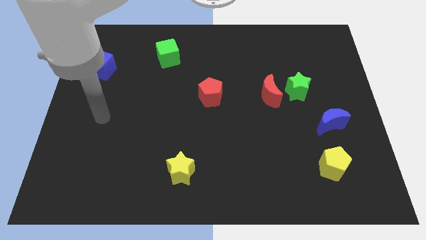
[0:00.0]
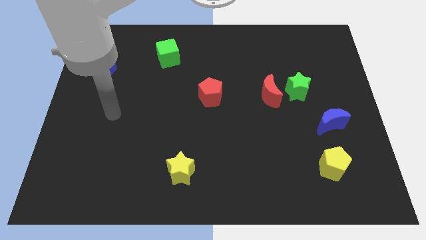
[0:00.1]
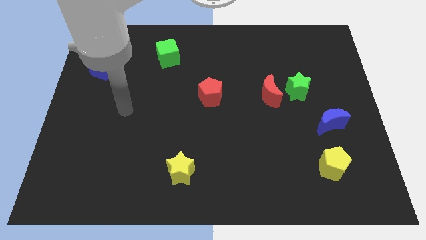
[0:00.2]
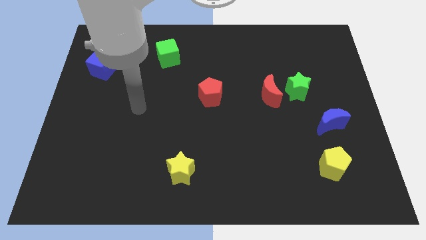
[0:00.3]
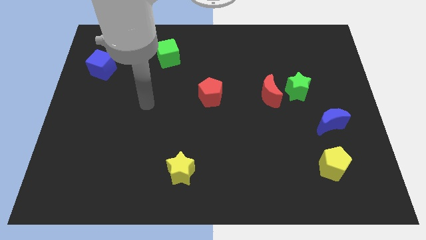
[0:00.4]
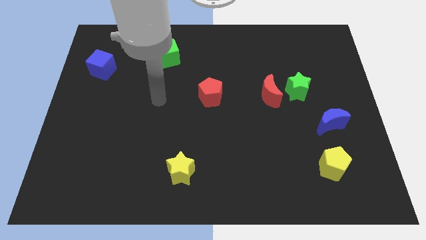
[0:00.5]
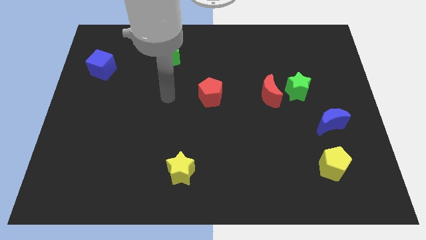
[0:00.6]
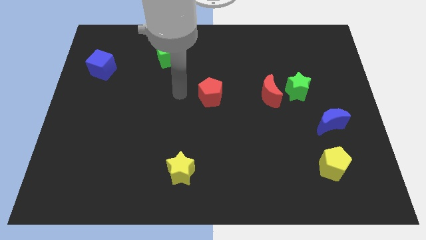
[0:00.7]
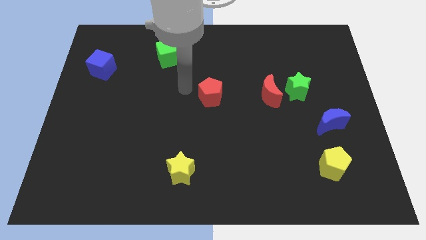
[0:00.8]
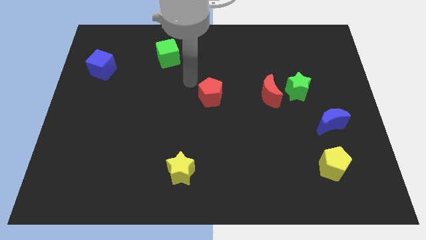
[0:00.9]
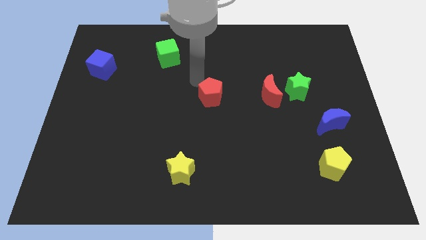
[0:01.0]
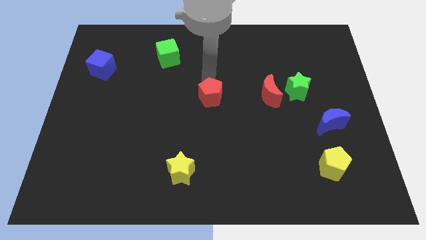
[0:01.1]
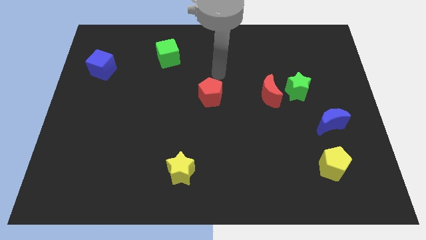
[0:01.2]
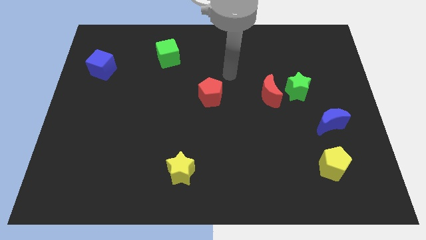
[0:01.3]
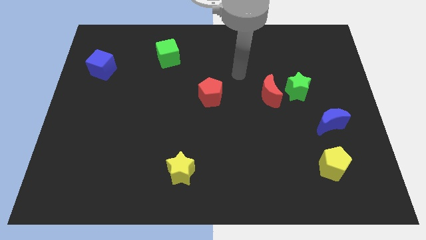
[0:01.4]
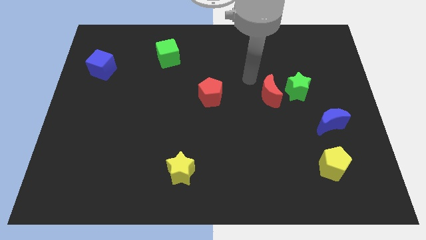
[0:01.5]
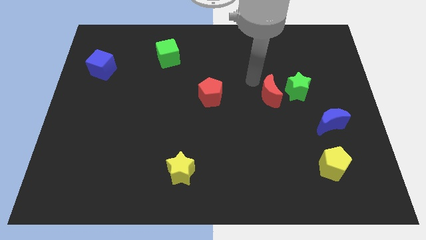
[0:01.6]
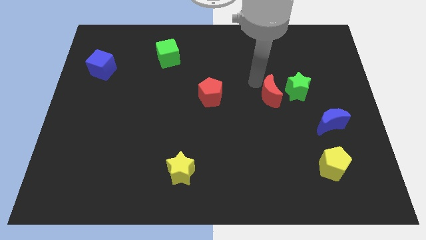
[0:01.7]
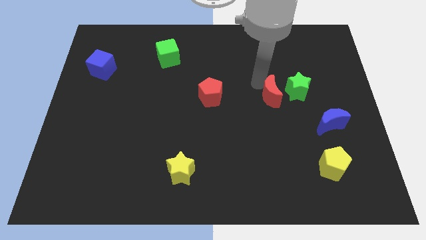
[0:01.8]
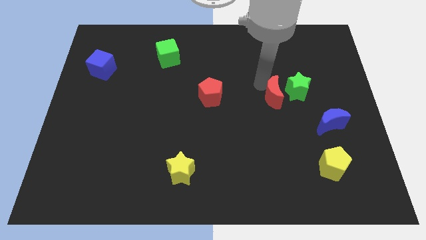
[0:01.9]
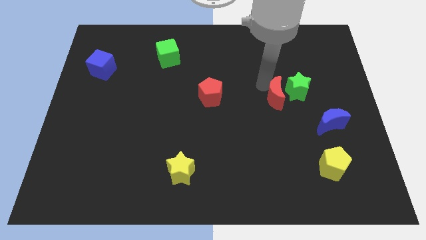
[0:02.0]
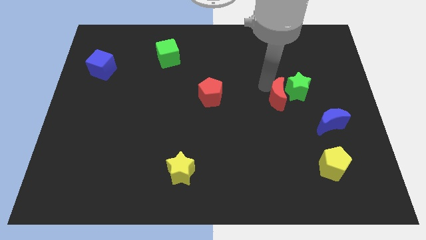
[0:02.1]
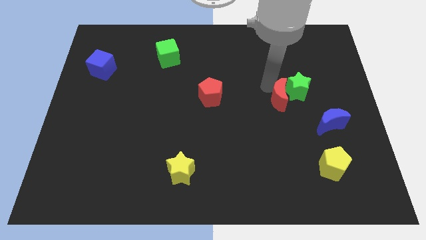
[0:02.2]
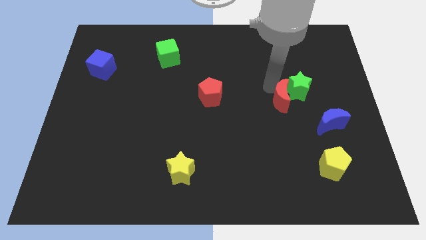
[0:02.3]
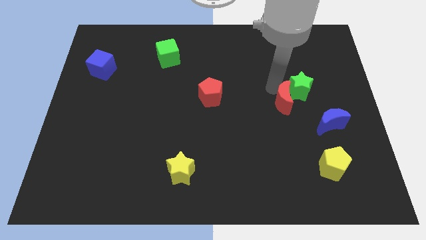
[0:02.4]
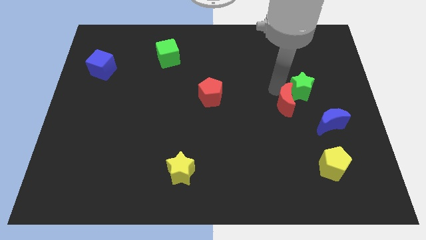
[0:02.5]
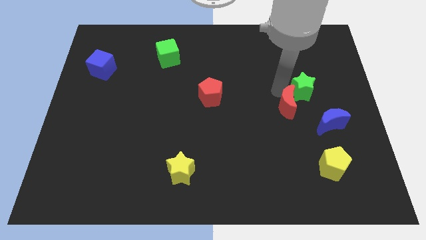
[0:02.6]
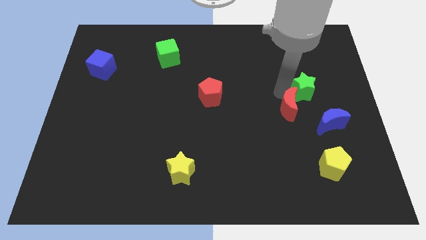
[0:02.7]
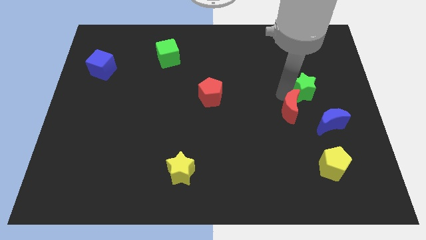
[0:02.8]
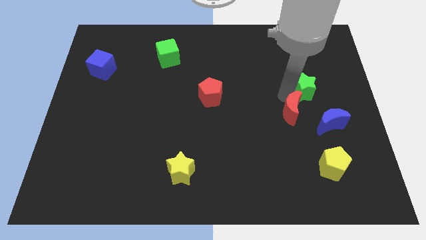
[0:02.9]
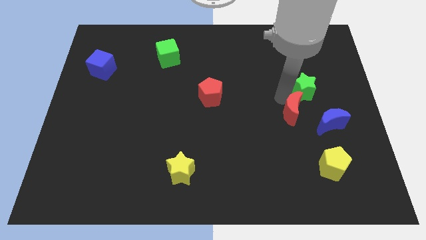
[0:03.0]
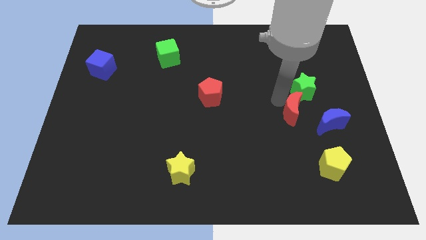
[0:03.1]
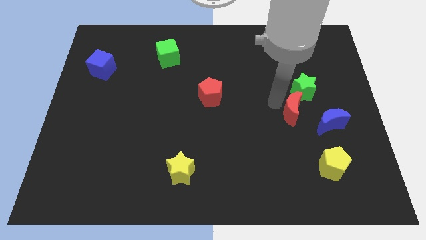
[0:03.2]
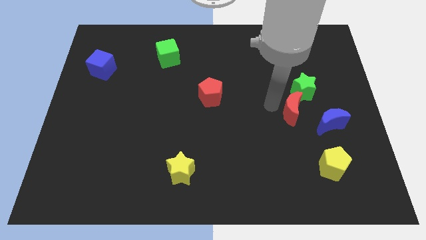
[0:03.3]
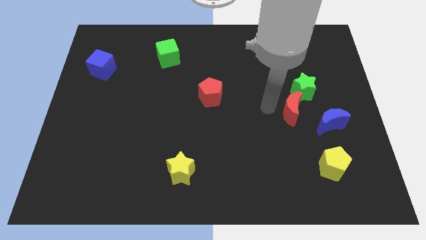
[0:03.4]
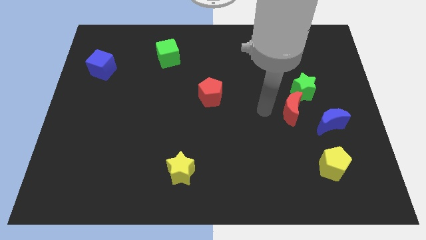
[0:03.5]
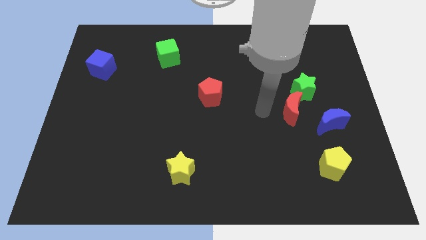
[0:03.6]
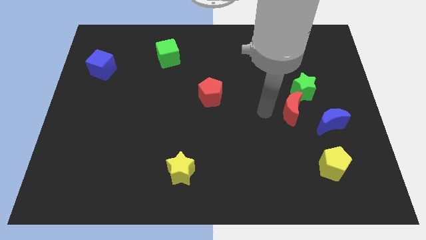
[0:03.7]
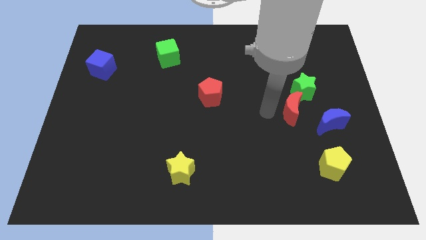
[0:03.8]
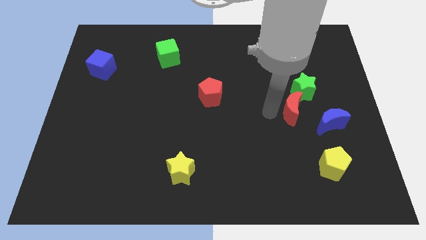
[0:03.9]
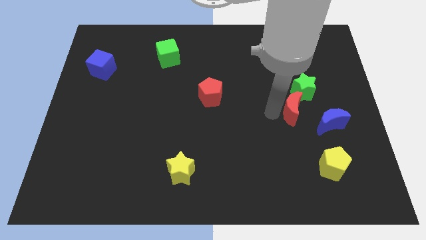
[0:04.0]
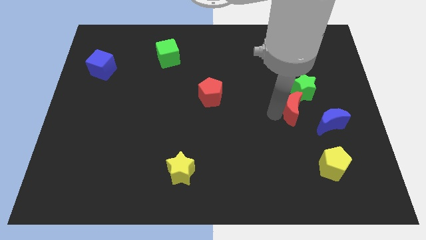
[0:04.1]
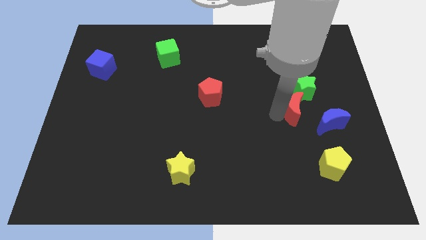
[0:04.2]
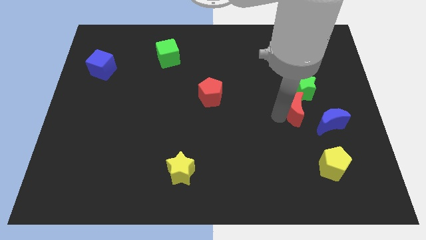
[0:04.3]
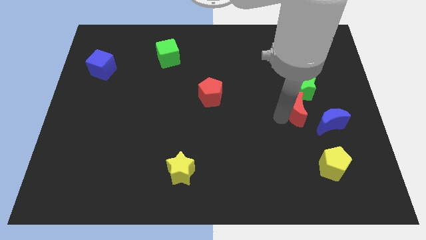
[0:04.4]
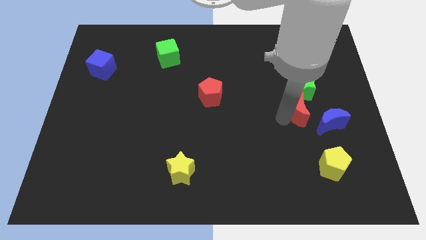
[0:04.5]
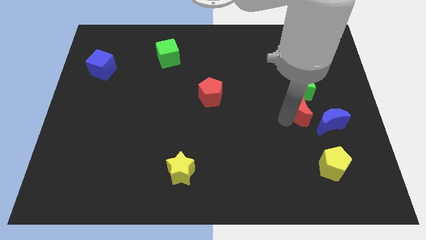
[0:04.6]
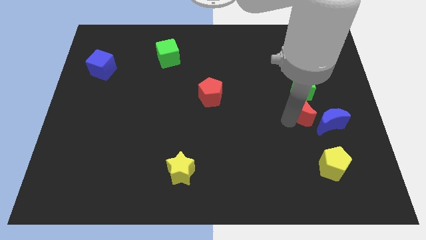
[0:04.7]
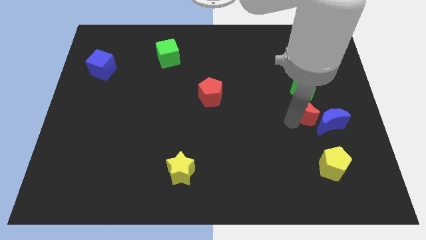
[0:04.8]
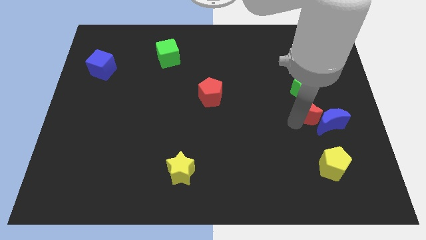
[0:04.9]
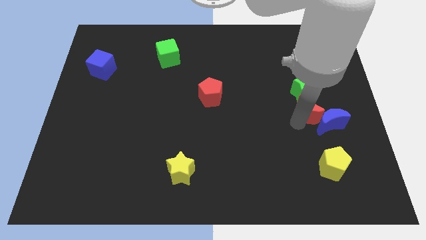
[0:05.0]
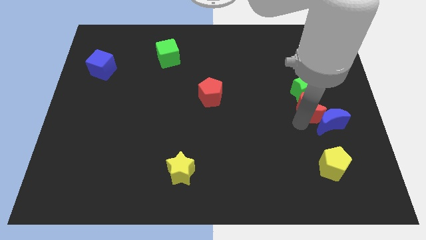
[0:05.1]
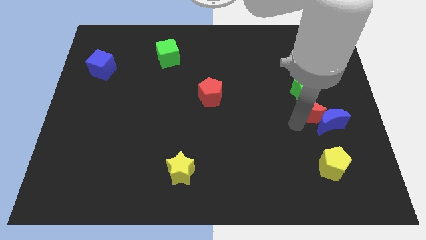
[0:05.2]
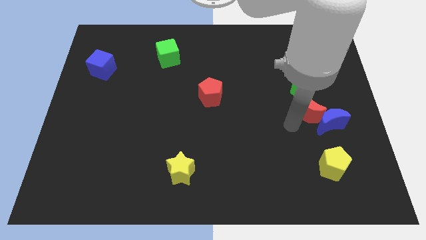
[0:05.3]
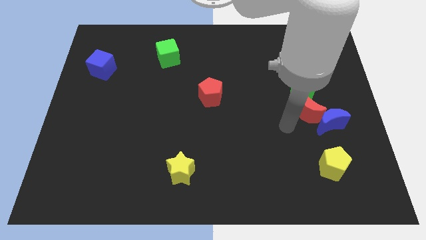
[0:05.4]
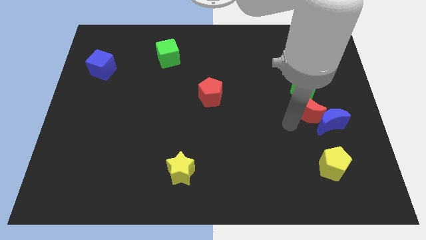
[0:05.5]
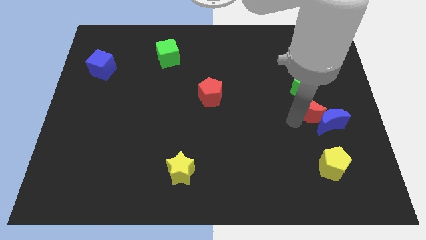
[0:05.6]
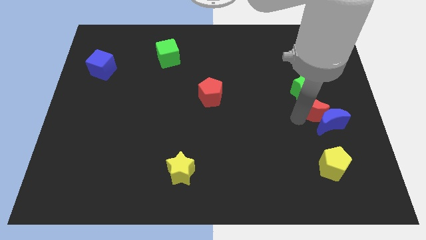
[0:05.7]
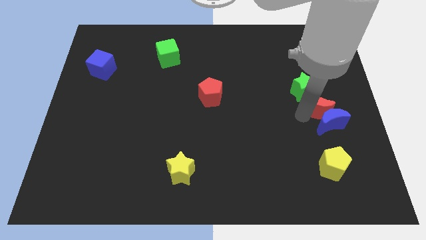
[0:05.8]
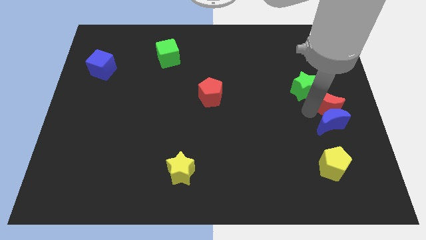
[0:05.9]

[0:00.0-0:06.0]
move the red moon to the right side
